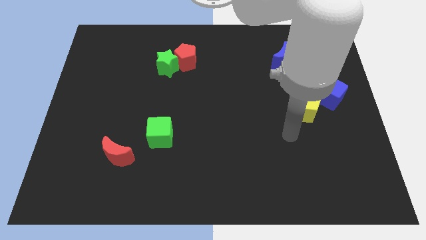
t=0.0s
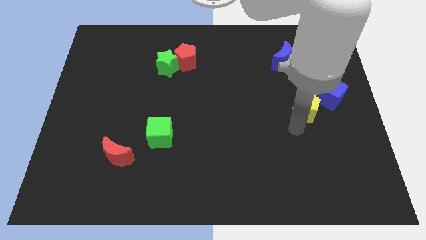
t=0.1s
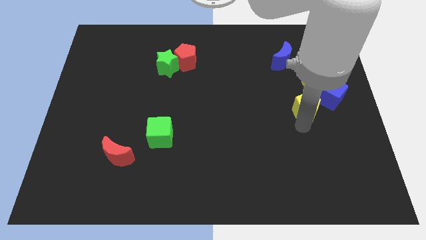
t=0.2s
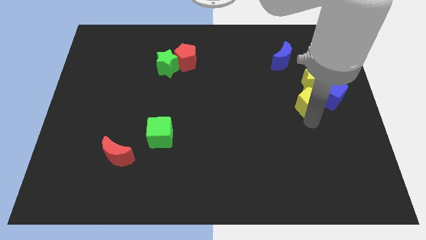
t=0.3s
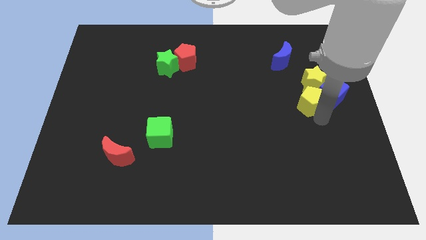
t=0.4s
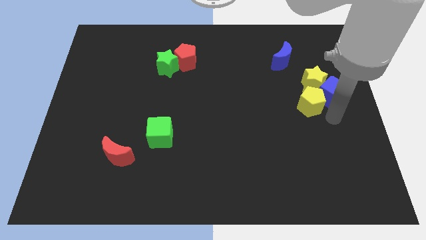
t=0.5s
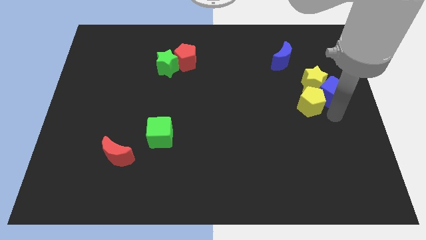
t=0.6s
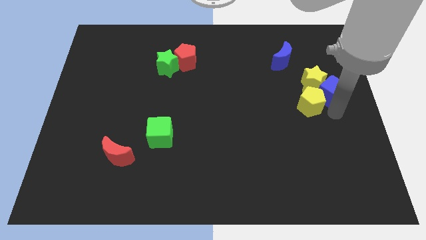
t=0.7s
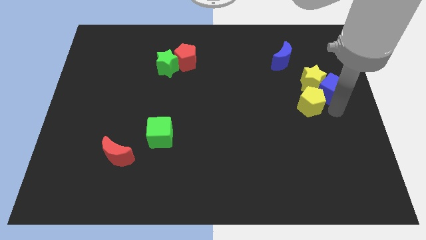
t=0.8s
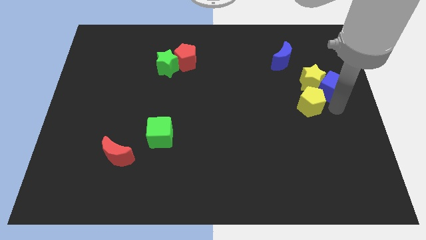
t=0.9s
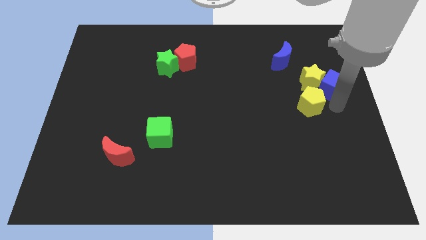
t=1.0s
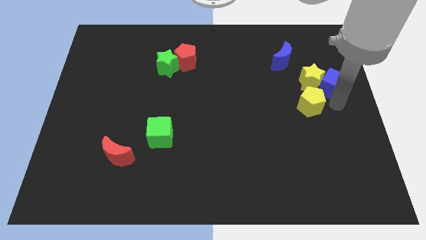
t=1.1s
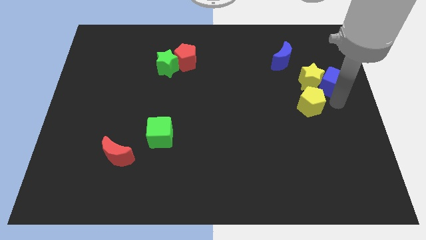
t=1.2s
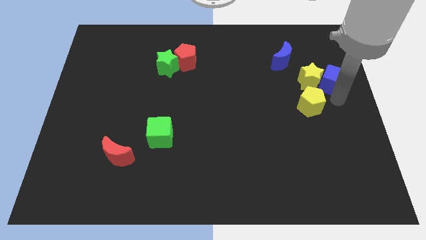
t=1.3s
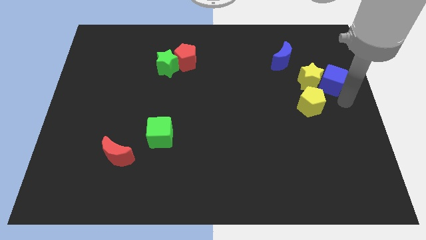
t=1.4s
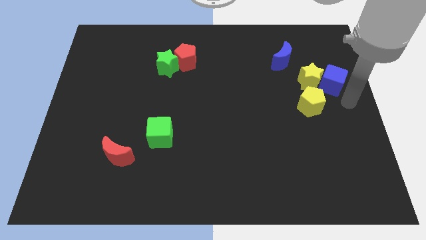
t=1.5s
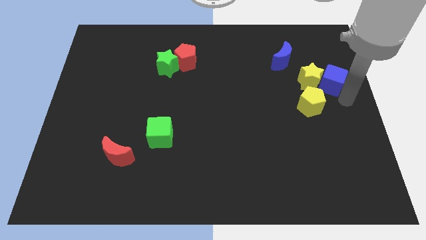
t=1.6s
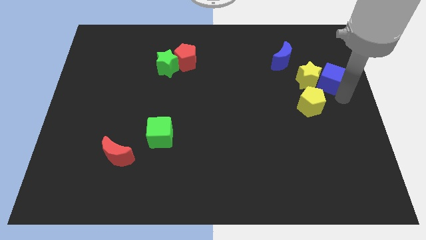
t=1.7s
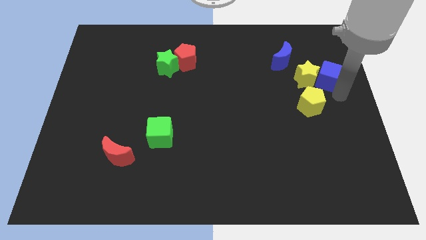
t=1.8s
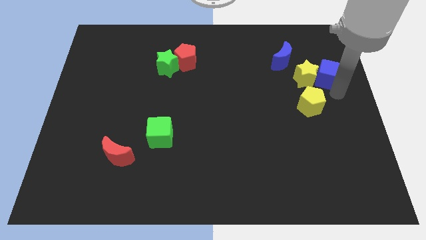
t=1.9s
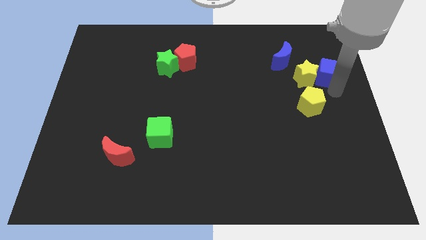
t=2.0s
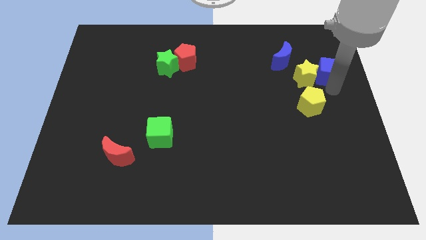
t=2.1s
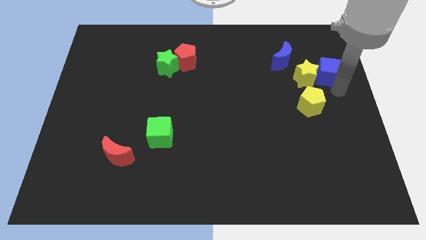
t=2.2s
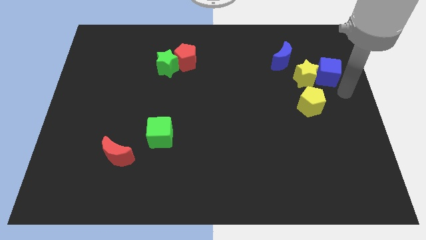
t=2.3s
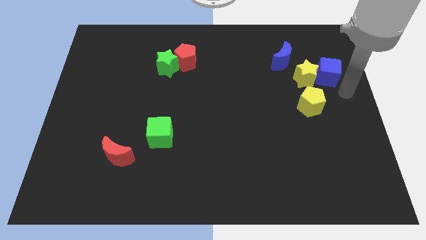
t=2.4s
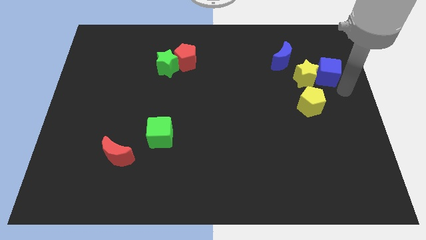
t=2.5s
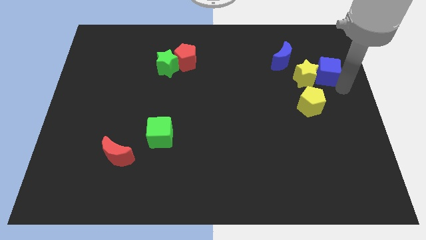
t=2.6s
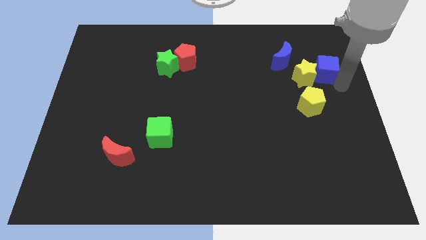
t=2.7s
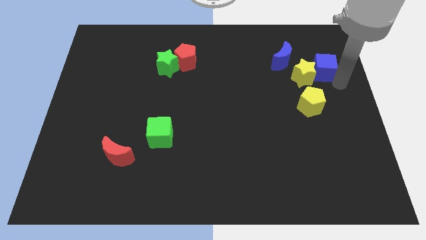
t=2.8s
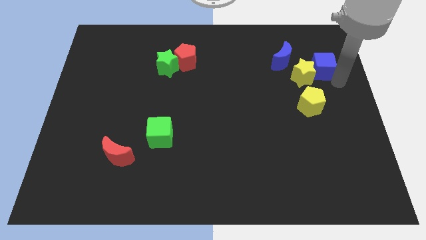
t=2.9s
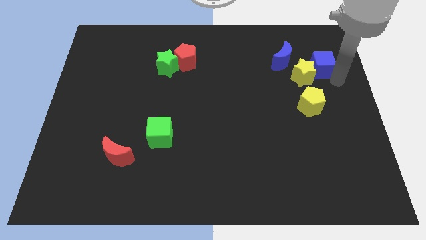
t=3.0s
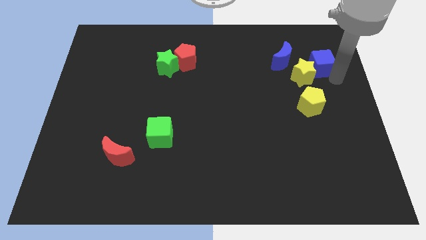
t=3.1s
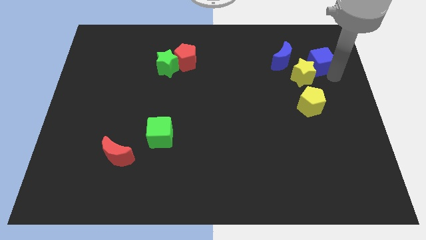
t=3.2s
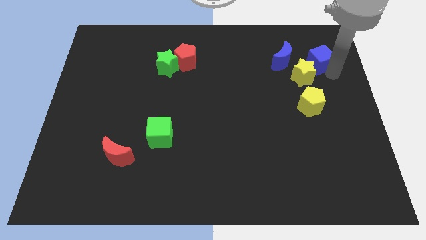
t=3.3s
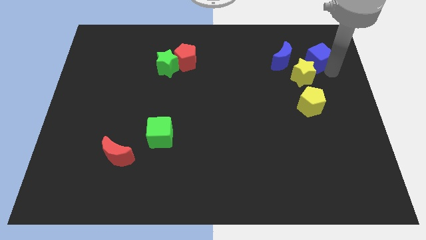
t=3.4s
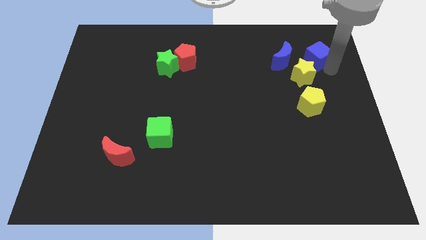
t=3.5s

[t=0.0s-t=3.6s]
slightly move the blue cube up and then to the left

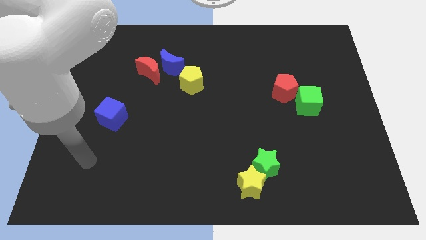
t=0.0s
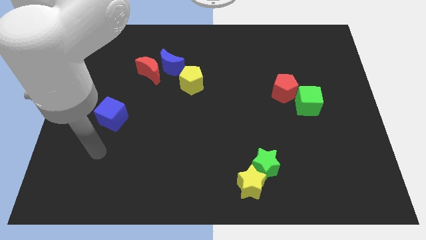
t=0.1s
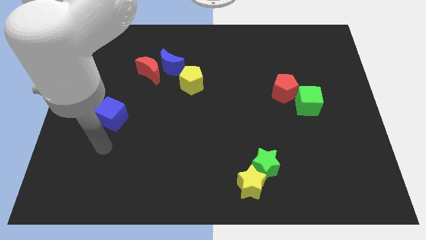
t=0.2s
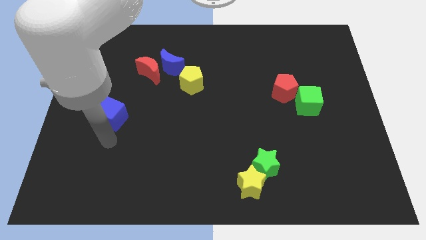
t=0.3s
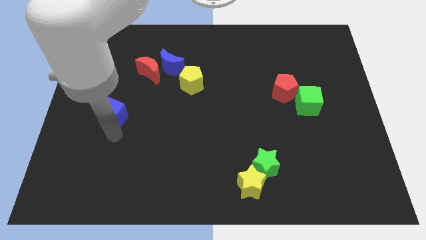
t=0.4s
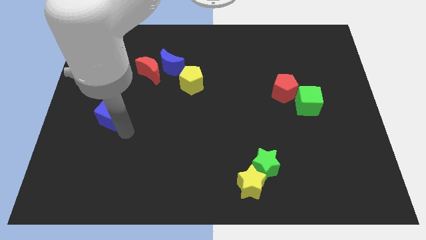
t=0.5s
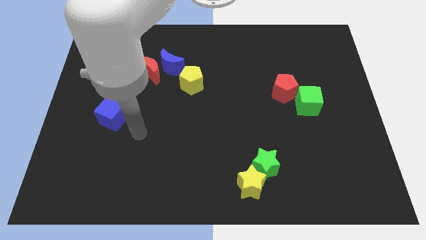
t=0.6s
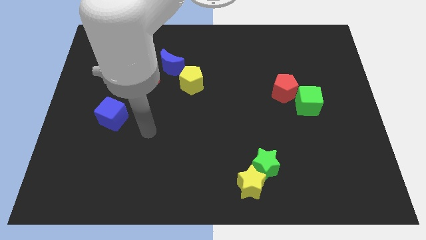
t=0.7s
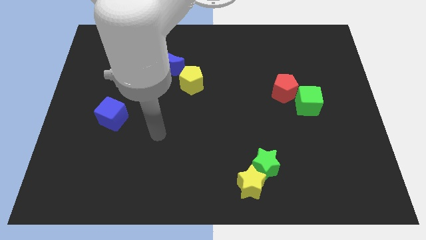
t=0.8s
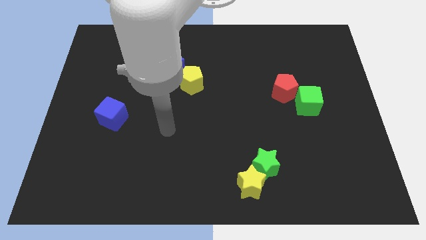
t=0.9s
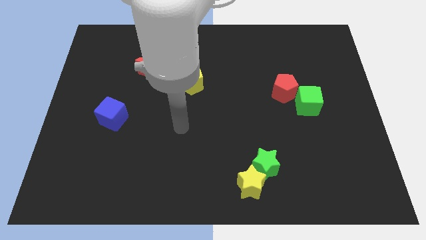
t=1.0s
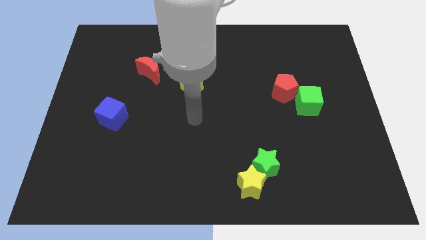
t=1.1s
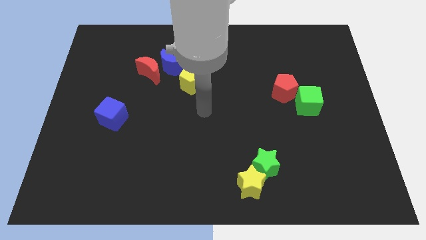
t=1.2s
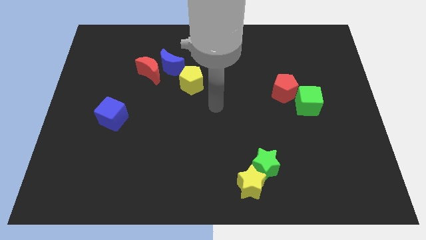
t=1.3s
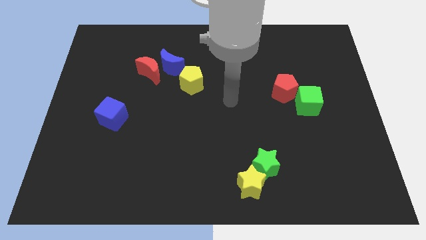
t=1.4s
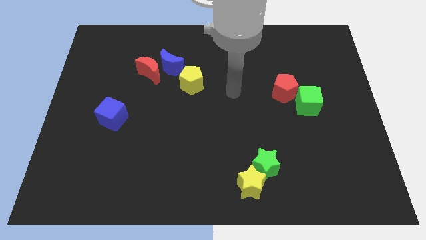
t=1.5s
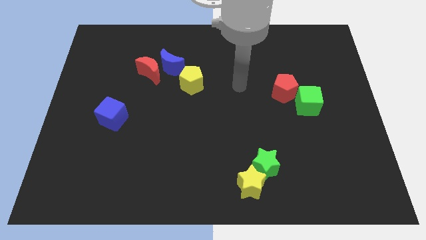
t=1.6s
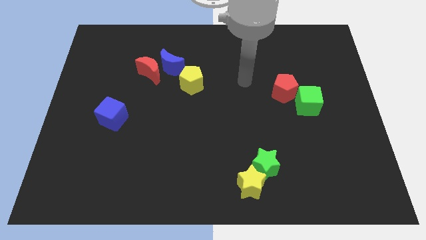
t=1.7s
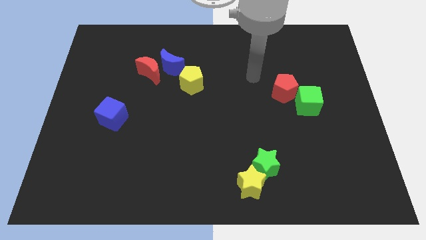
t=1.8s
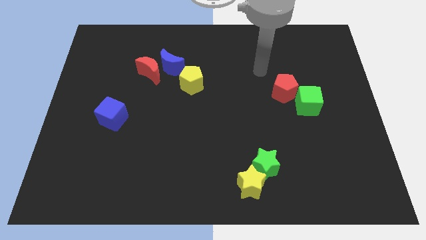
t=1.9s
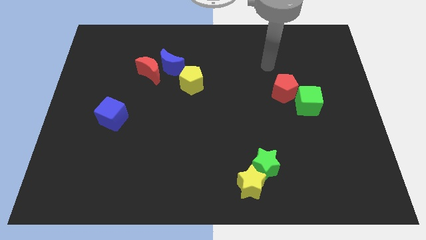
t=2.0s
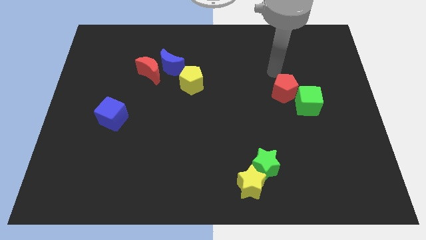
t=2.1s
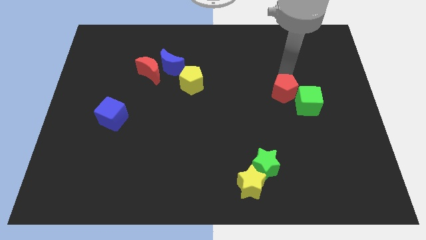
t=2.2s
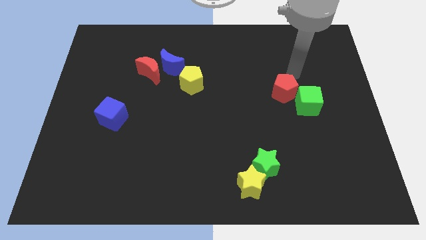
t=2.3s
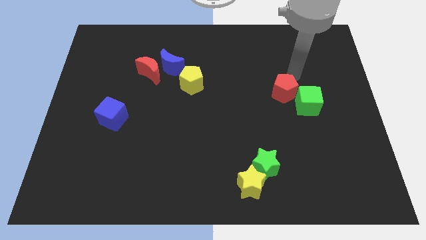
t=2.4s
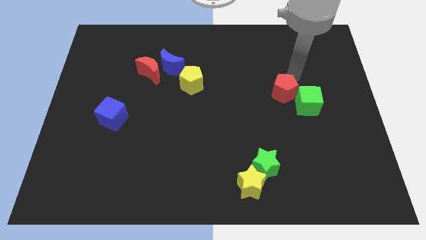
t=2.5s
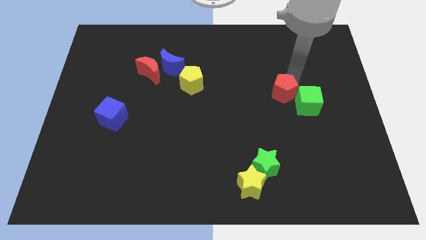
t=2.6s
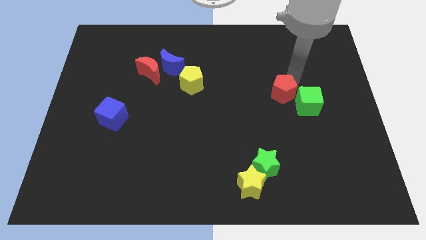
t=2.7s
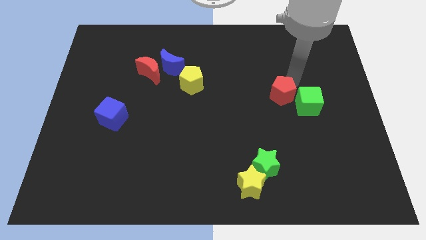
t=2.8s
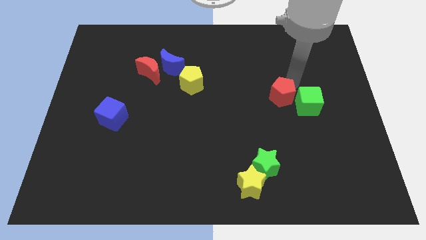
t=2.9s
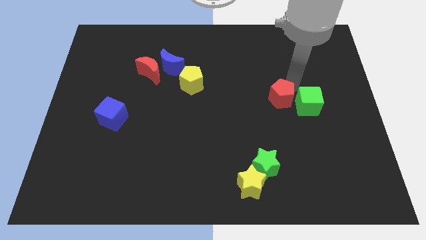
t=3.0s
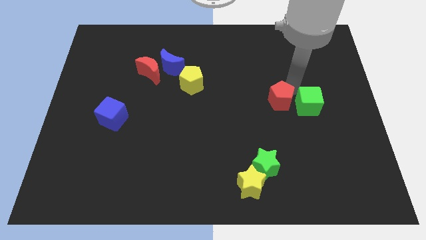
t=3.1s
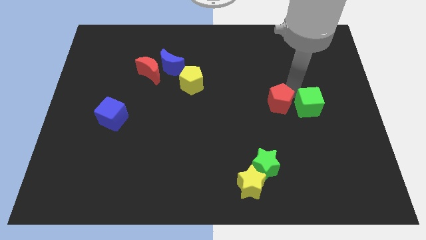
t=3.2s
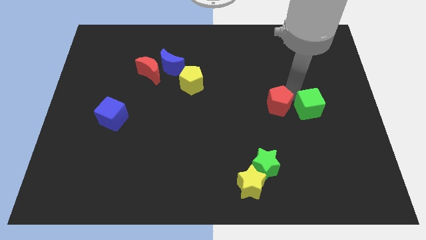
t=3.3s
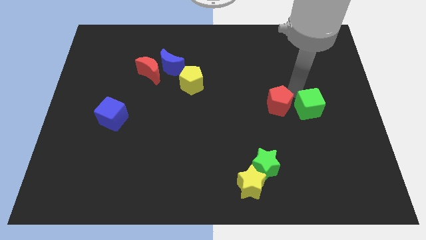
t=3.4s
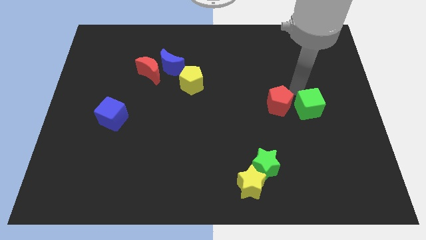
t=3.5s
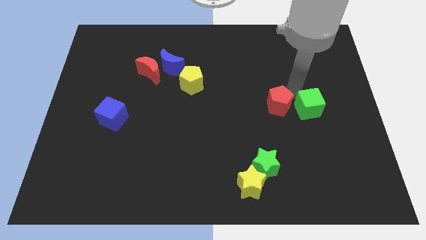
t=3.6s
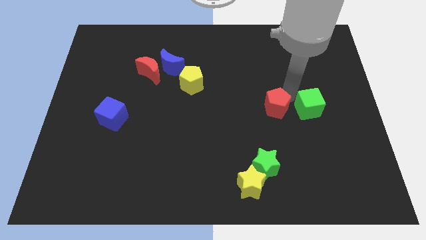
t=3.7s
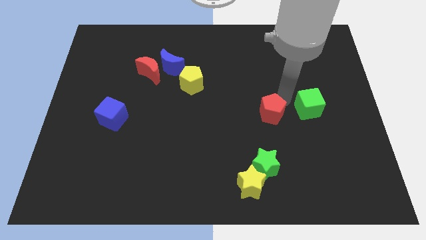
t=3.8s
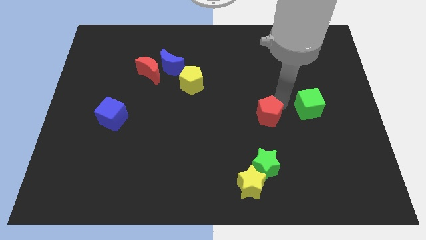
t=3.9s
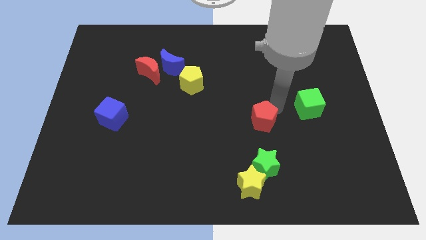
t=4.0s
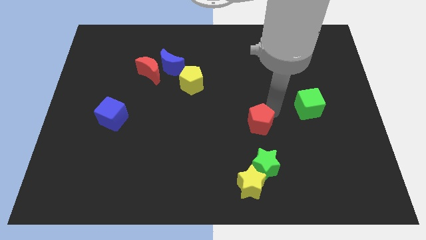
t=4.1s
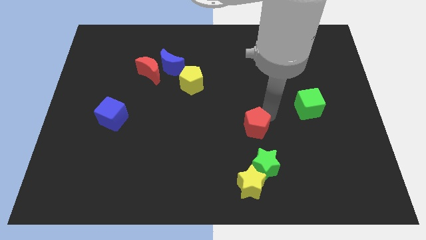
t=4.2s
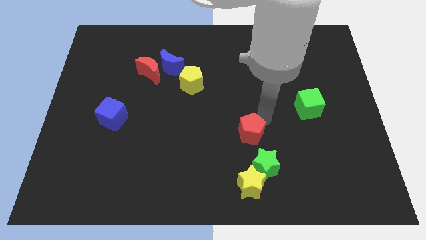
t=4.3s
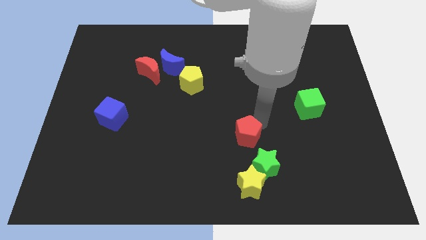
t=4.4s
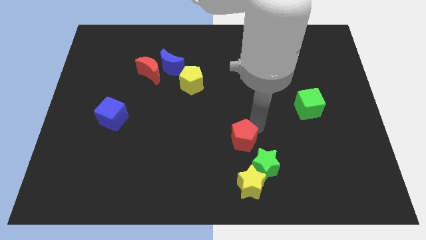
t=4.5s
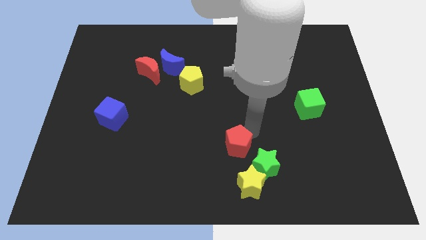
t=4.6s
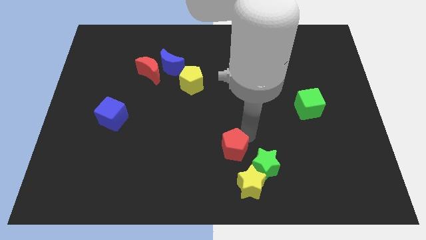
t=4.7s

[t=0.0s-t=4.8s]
move the red pentagon downwards and to the left diagonally
